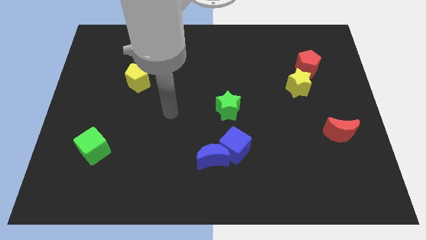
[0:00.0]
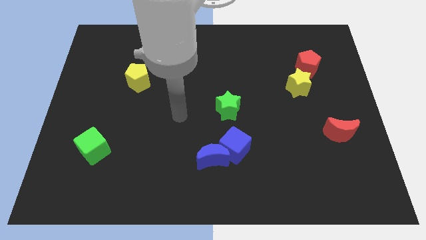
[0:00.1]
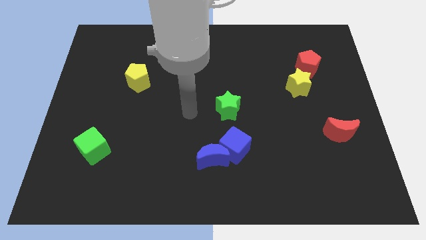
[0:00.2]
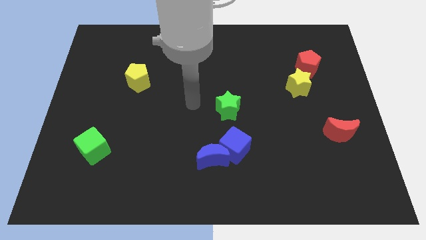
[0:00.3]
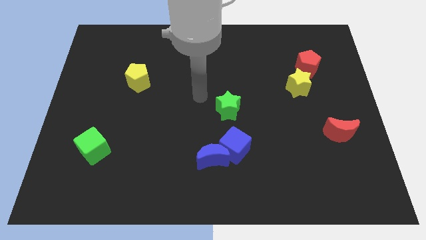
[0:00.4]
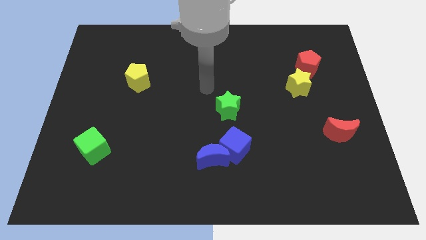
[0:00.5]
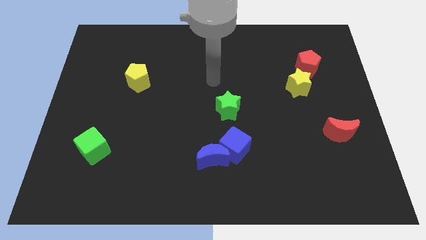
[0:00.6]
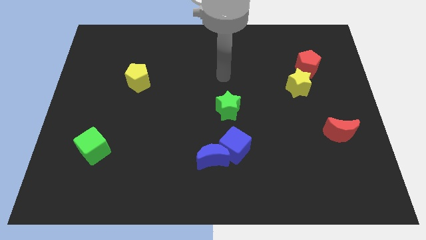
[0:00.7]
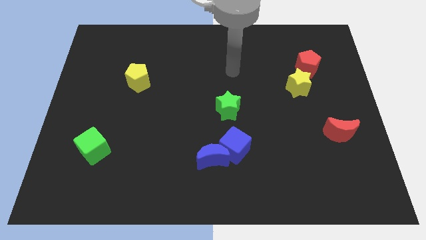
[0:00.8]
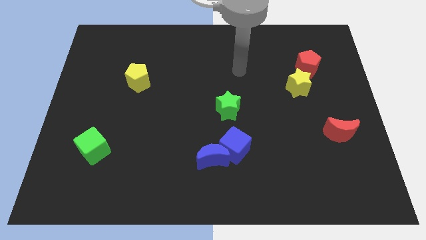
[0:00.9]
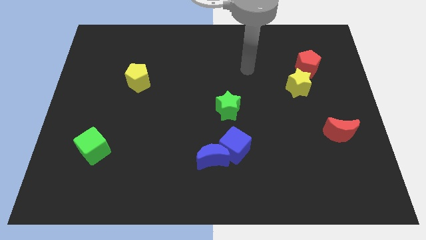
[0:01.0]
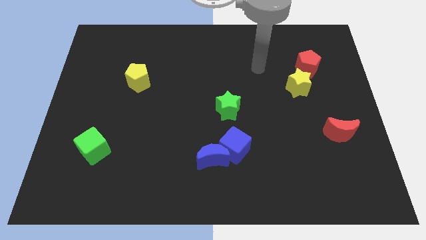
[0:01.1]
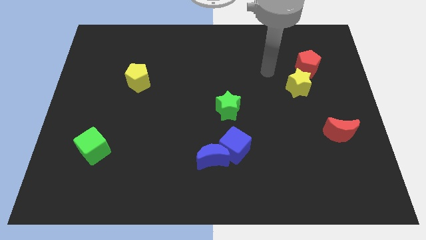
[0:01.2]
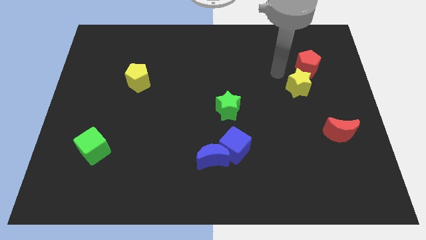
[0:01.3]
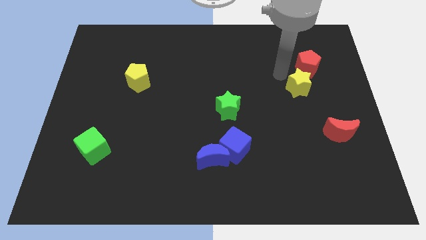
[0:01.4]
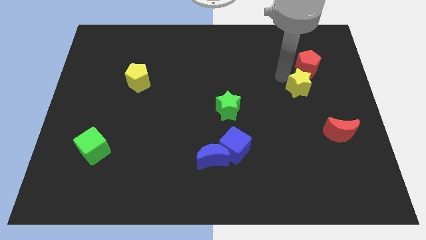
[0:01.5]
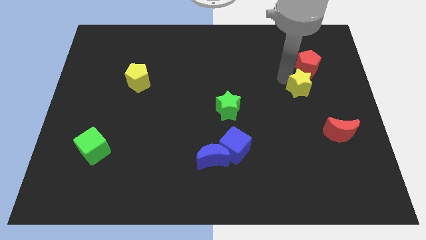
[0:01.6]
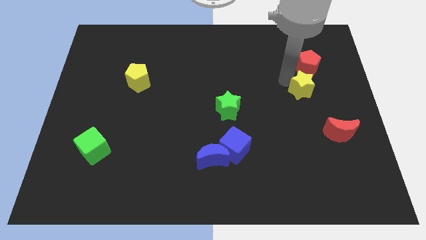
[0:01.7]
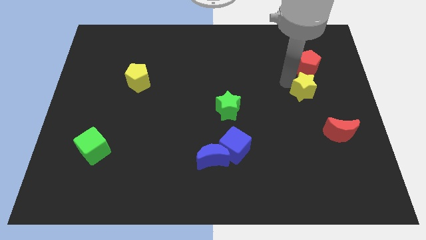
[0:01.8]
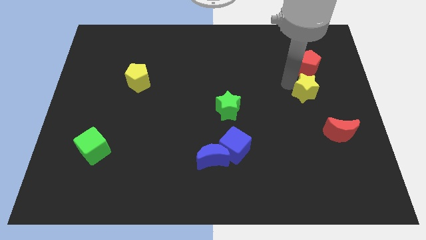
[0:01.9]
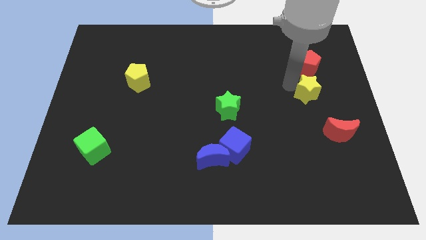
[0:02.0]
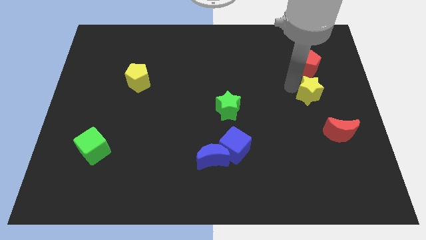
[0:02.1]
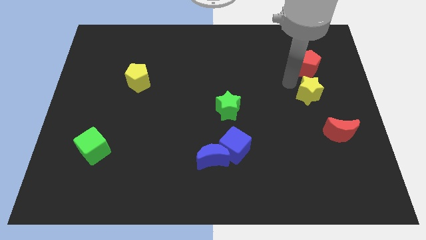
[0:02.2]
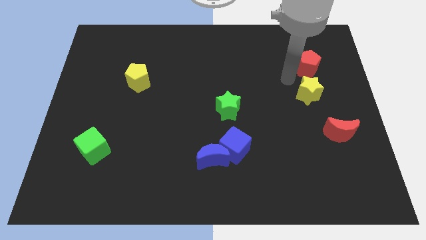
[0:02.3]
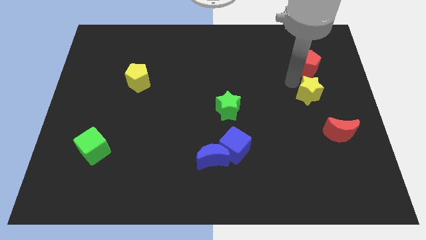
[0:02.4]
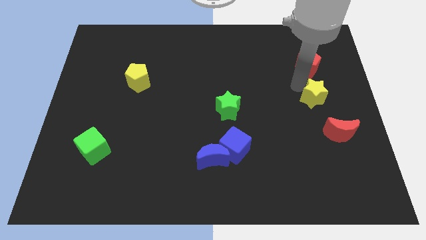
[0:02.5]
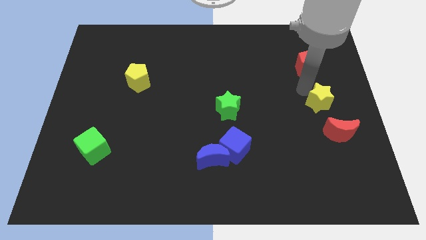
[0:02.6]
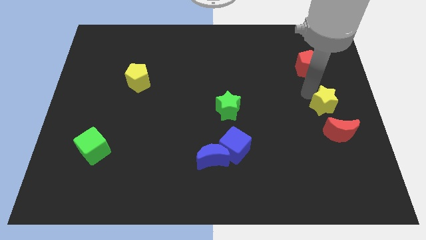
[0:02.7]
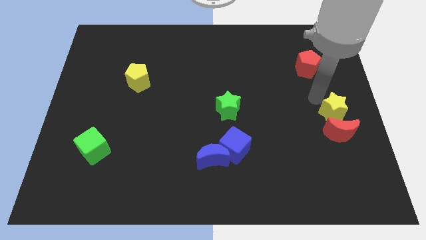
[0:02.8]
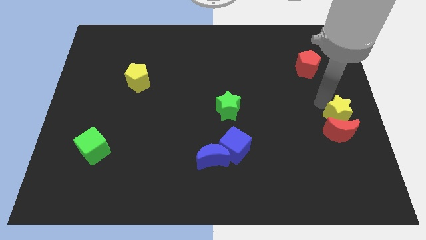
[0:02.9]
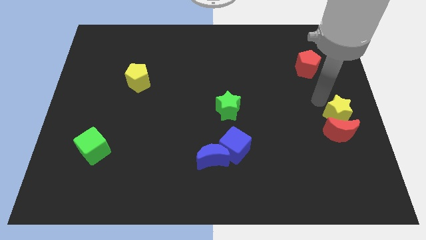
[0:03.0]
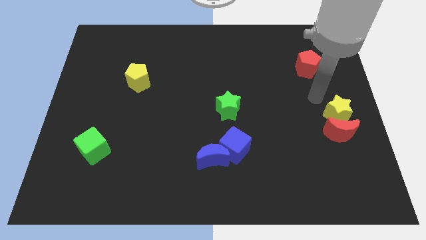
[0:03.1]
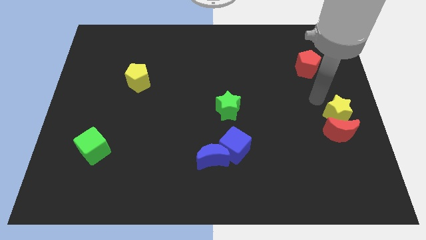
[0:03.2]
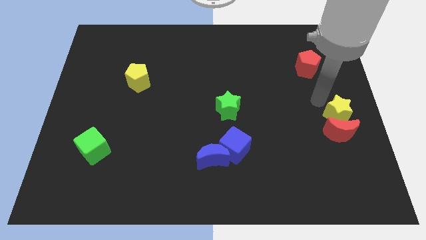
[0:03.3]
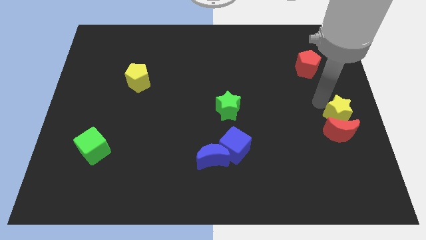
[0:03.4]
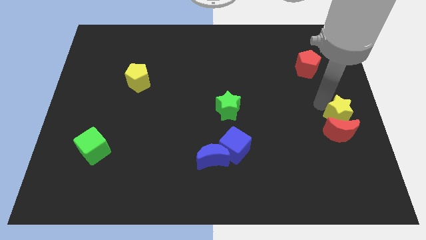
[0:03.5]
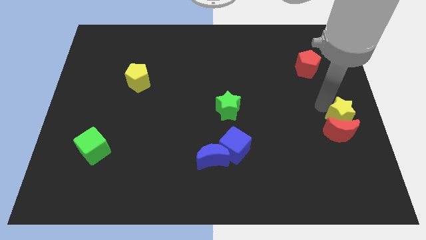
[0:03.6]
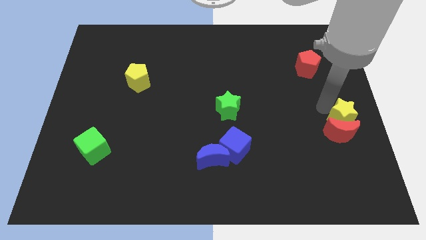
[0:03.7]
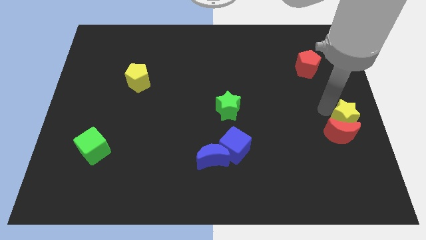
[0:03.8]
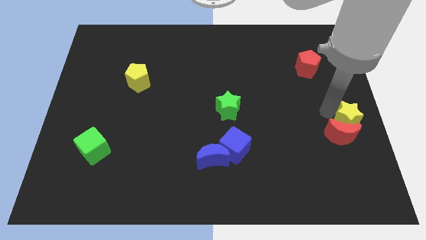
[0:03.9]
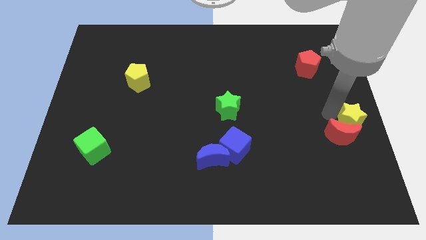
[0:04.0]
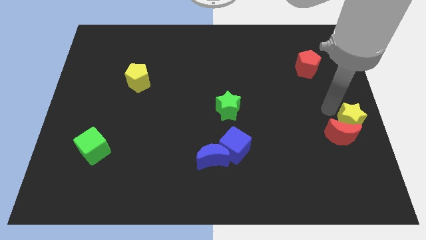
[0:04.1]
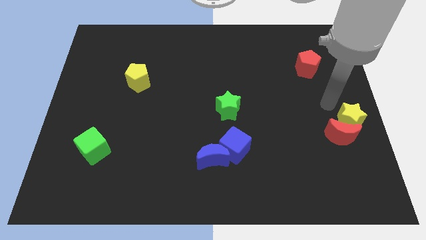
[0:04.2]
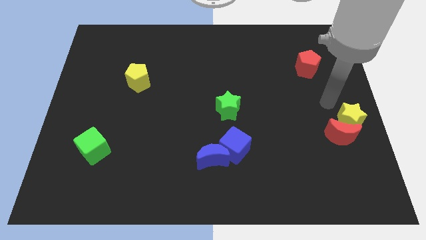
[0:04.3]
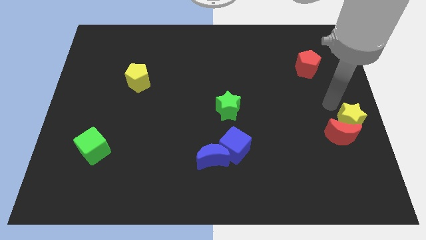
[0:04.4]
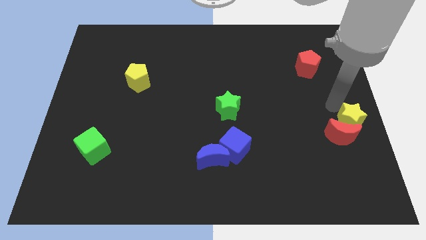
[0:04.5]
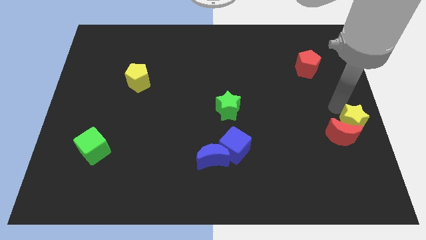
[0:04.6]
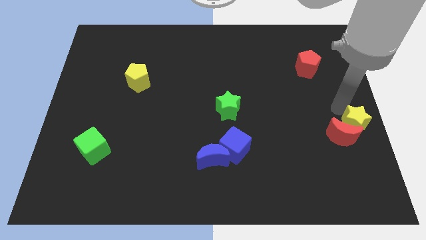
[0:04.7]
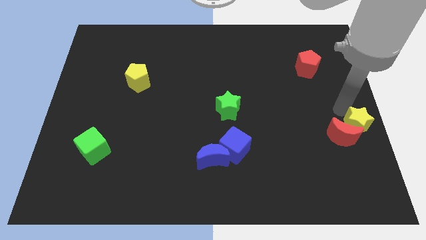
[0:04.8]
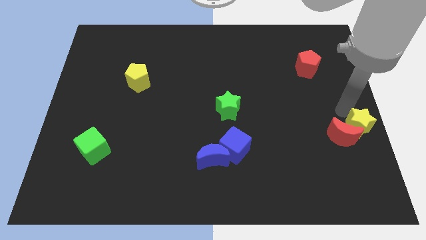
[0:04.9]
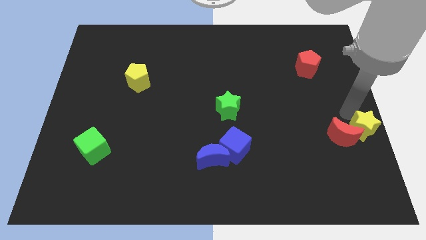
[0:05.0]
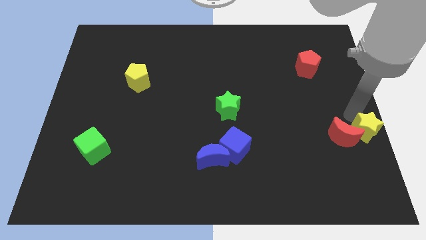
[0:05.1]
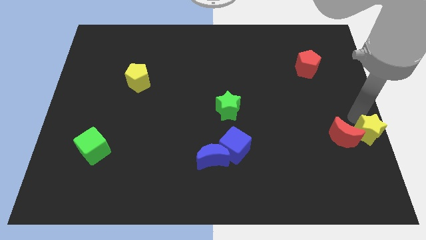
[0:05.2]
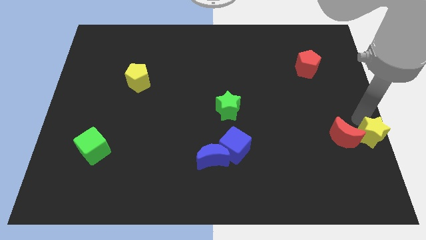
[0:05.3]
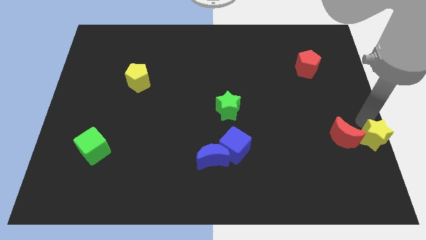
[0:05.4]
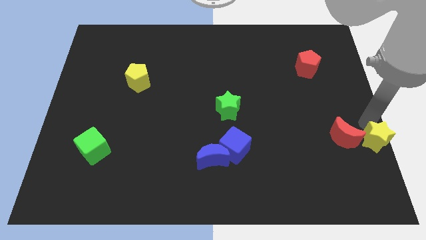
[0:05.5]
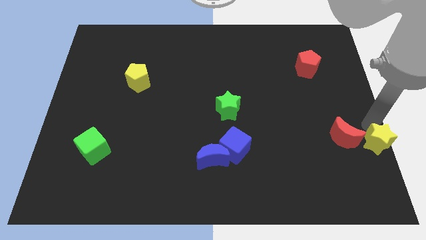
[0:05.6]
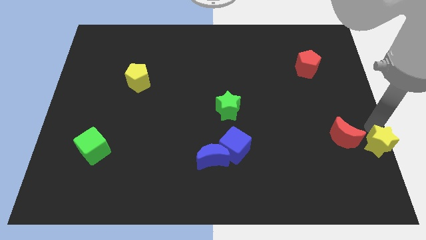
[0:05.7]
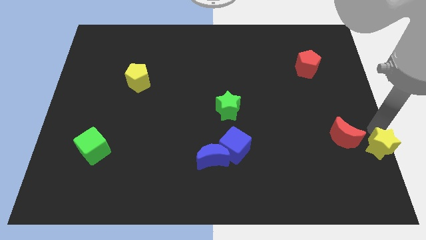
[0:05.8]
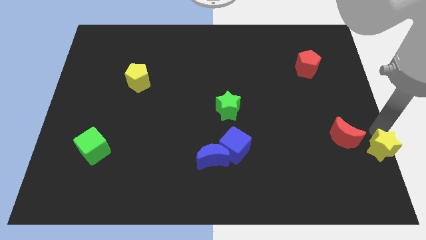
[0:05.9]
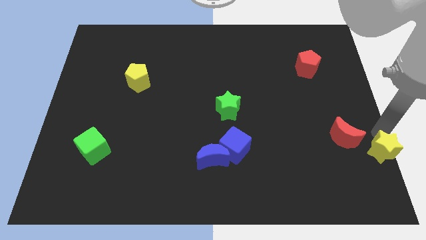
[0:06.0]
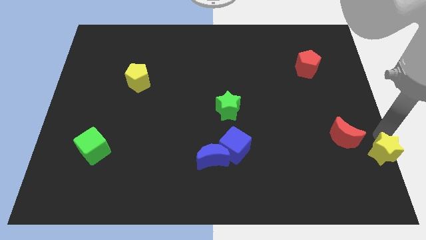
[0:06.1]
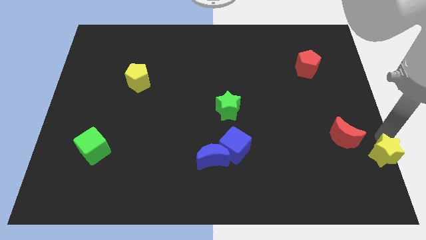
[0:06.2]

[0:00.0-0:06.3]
move the yellow star to the bottom right

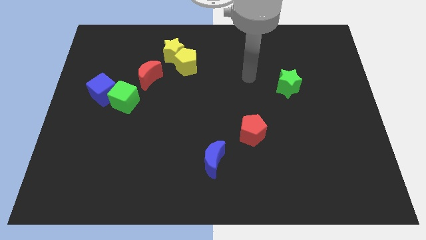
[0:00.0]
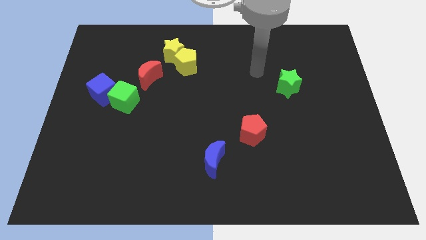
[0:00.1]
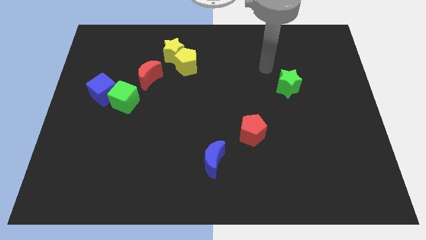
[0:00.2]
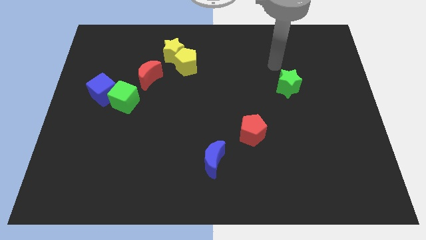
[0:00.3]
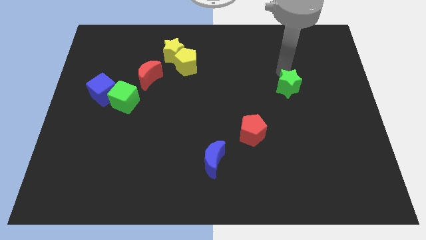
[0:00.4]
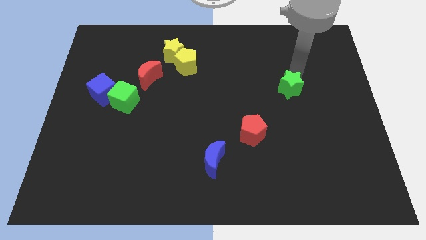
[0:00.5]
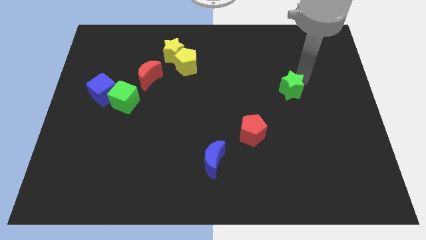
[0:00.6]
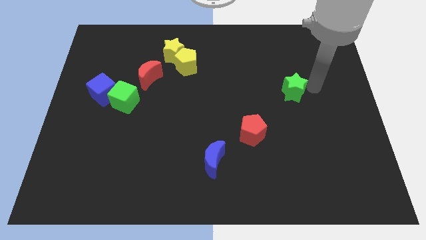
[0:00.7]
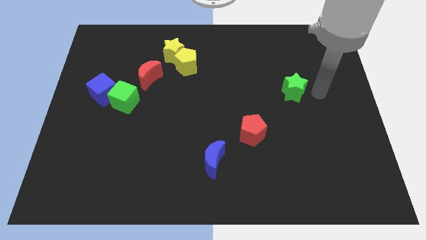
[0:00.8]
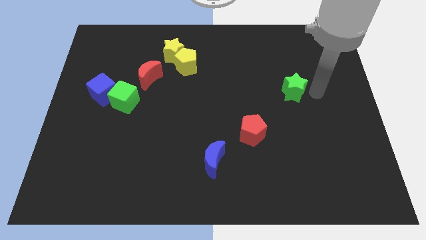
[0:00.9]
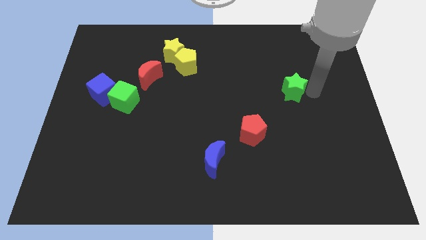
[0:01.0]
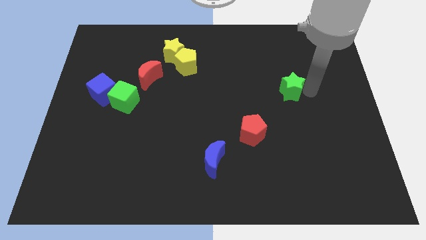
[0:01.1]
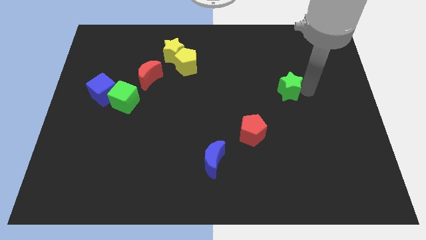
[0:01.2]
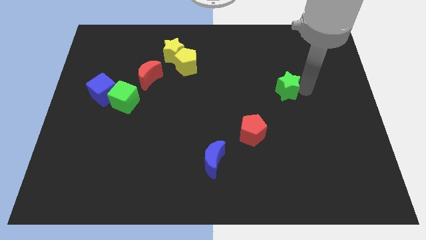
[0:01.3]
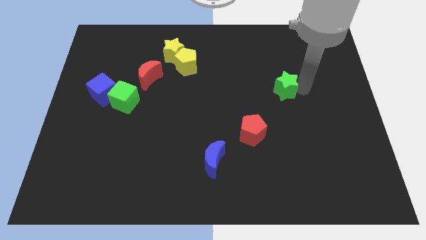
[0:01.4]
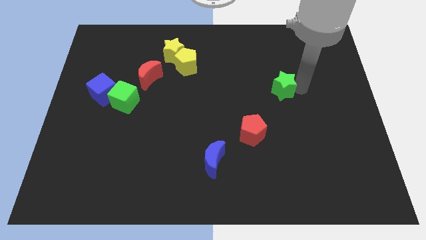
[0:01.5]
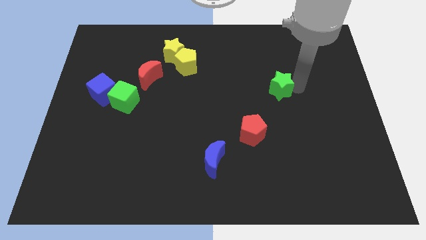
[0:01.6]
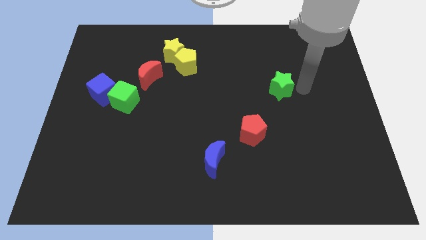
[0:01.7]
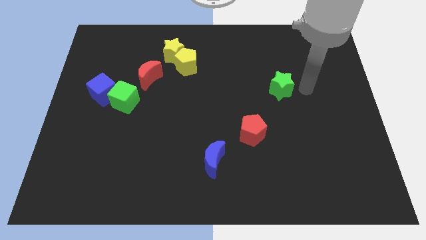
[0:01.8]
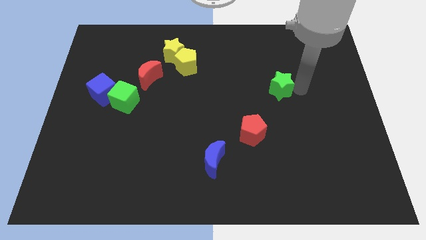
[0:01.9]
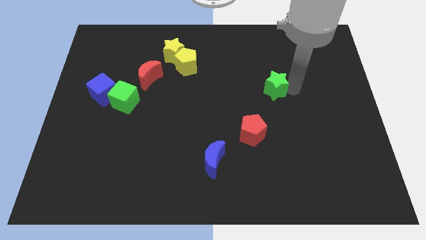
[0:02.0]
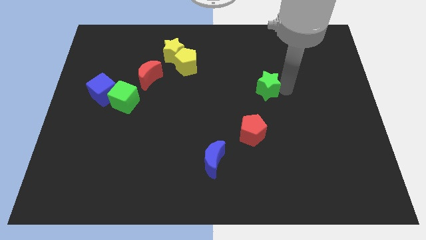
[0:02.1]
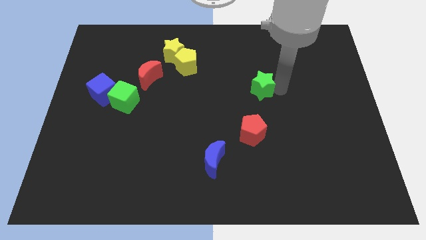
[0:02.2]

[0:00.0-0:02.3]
push the green star to the center of the board
